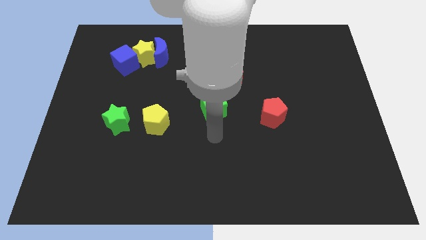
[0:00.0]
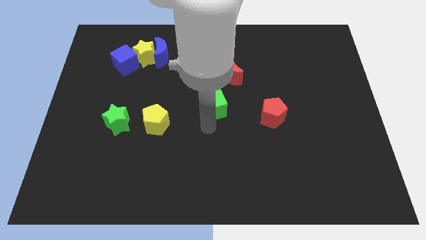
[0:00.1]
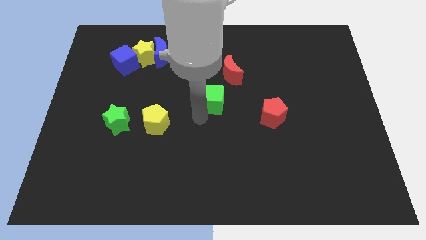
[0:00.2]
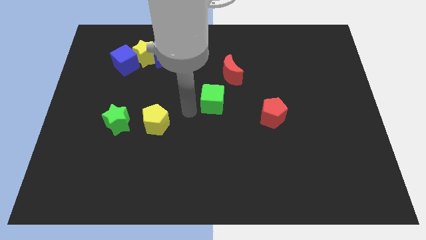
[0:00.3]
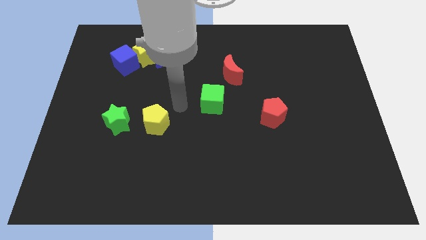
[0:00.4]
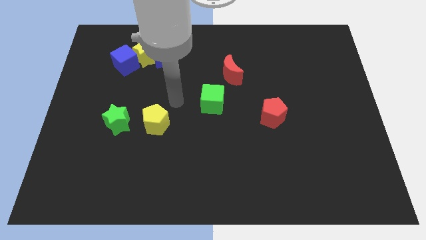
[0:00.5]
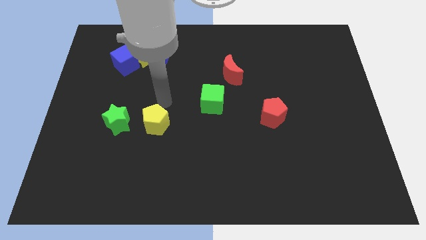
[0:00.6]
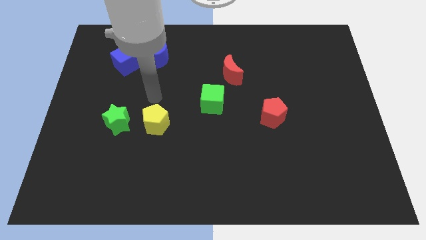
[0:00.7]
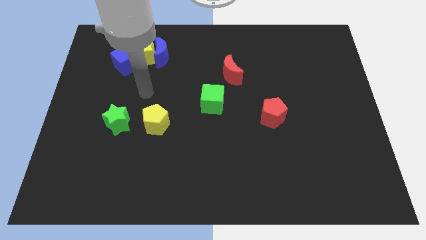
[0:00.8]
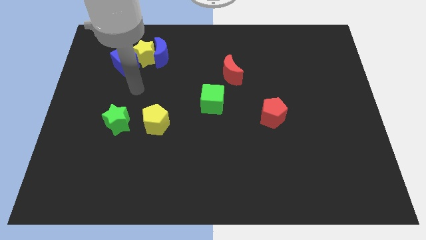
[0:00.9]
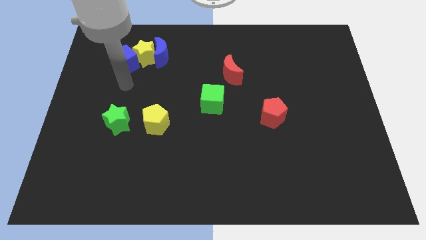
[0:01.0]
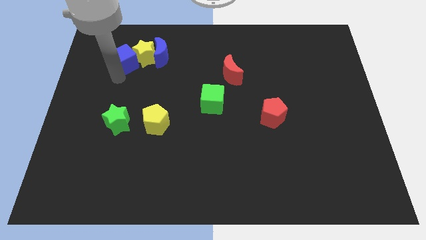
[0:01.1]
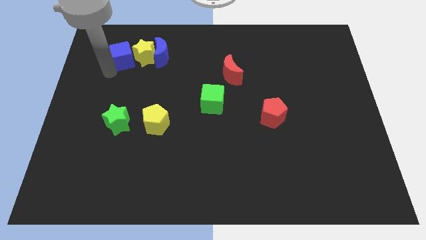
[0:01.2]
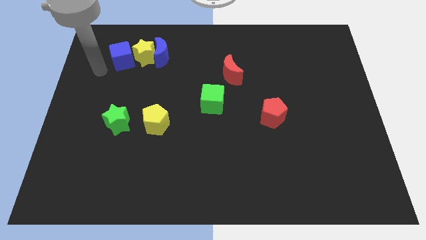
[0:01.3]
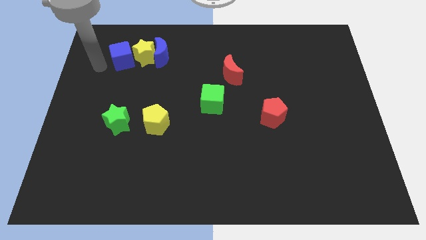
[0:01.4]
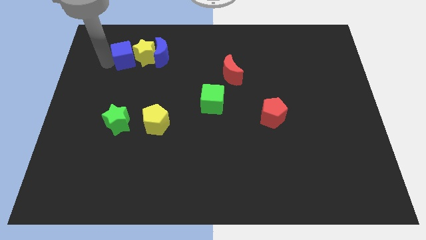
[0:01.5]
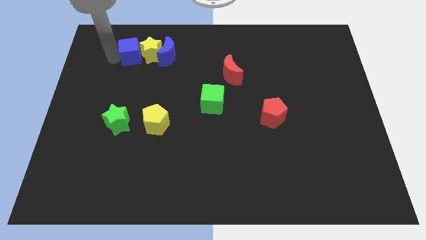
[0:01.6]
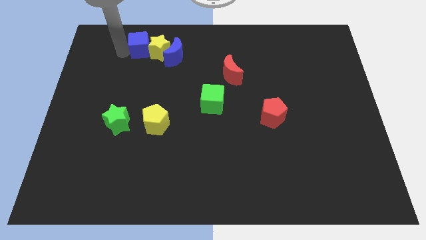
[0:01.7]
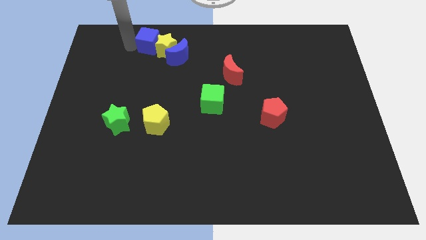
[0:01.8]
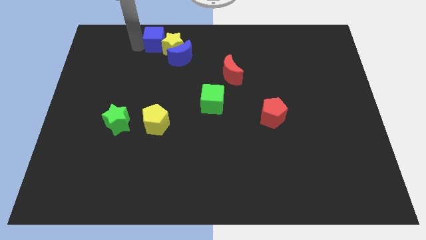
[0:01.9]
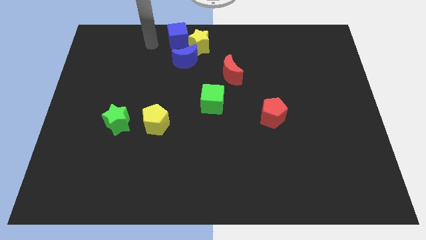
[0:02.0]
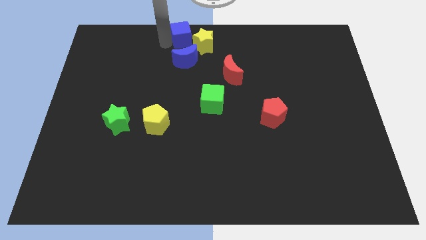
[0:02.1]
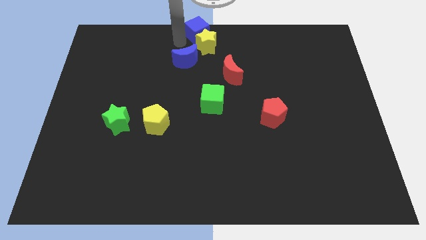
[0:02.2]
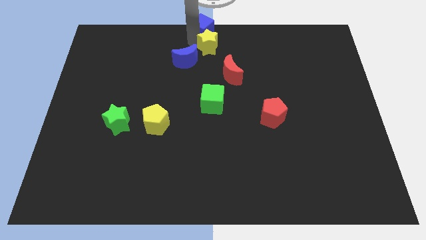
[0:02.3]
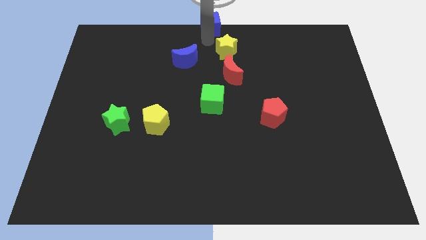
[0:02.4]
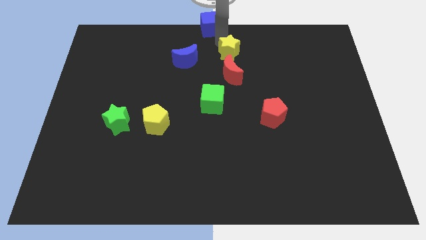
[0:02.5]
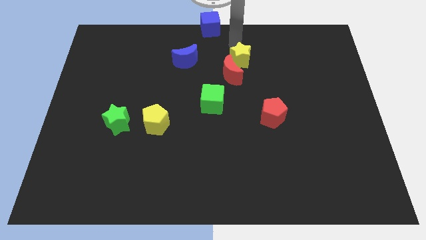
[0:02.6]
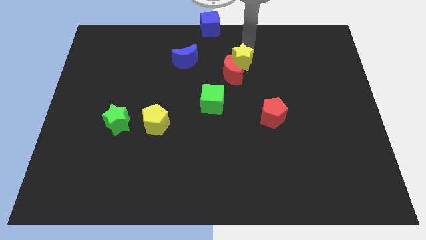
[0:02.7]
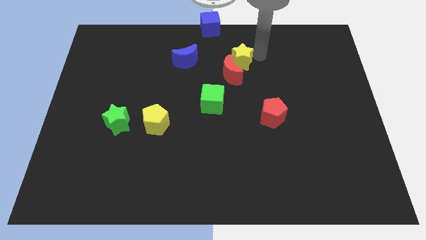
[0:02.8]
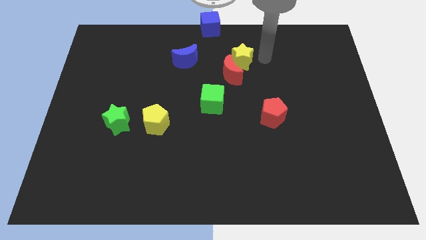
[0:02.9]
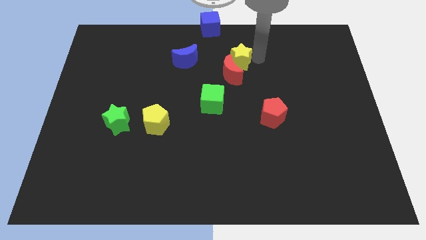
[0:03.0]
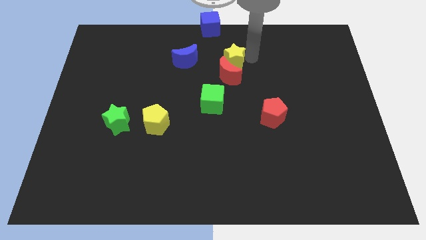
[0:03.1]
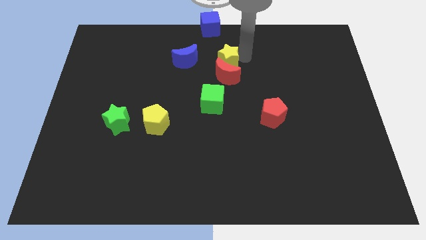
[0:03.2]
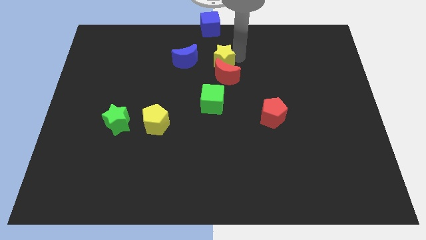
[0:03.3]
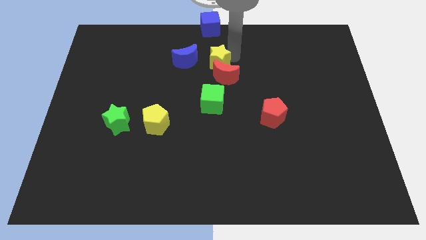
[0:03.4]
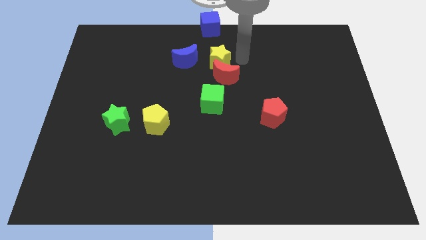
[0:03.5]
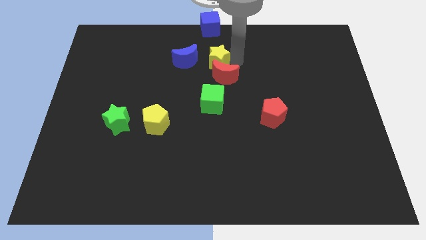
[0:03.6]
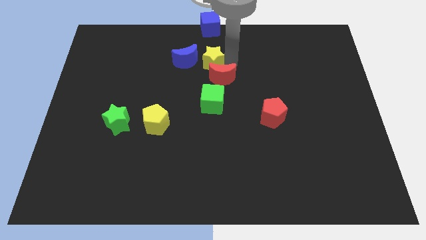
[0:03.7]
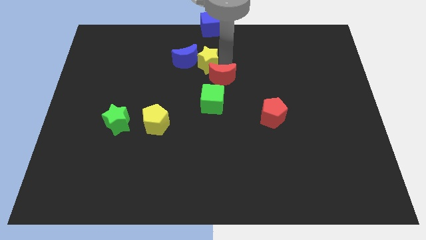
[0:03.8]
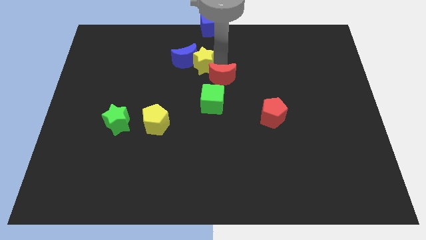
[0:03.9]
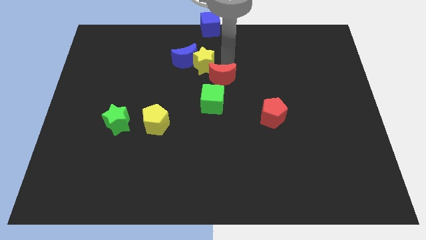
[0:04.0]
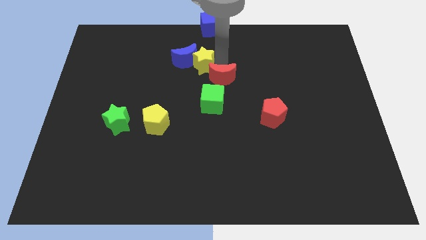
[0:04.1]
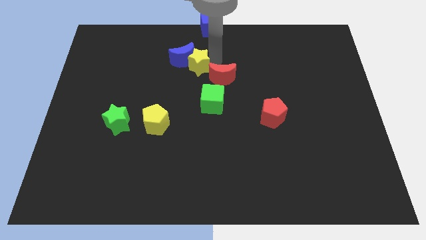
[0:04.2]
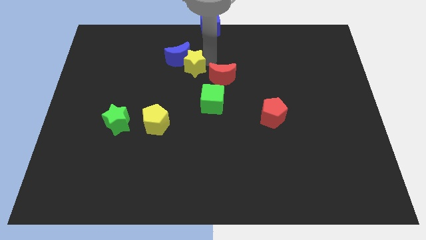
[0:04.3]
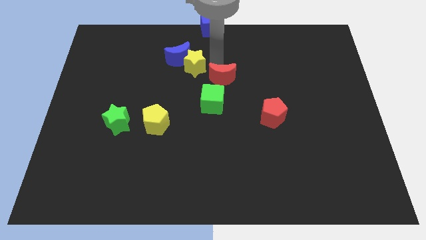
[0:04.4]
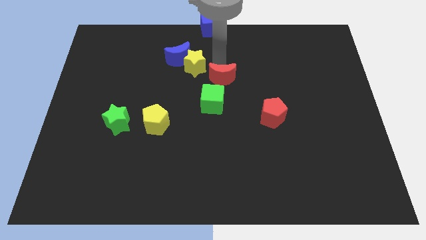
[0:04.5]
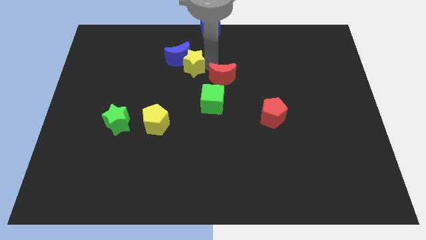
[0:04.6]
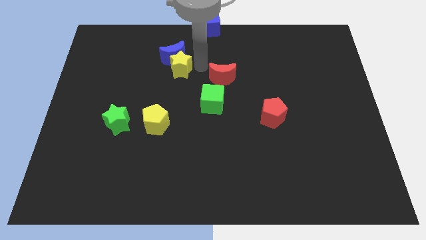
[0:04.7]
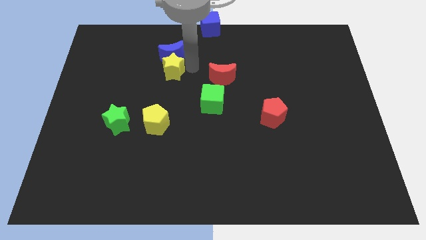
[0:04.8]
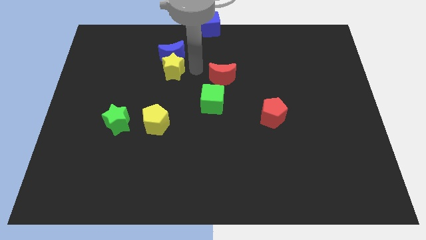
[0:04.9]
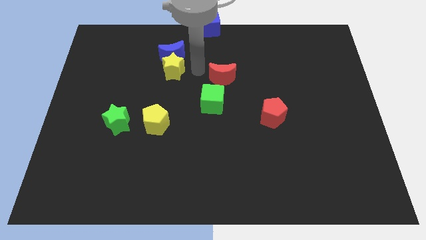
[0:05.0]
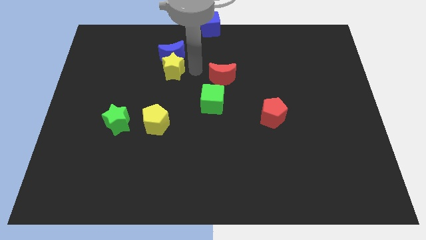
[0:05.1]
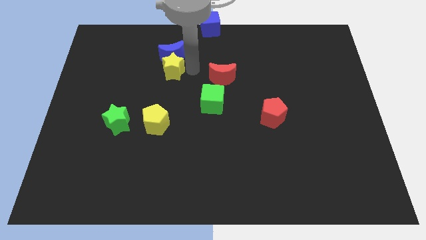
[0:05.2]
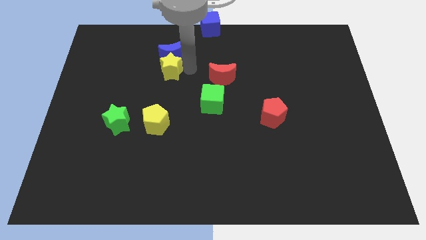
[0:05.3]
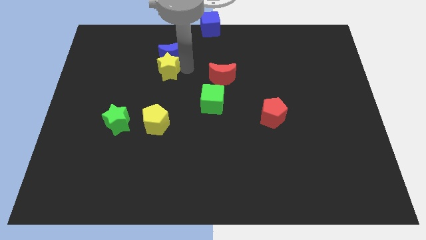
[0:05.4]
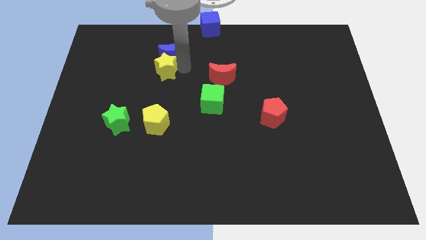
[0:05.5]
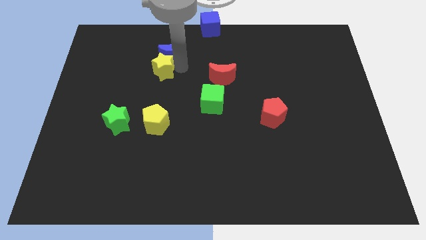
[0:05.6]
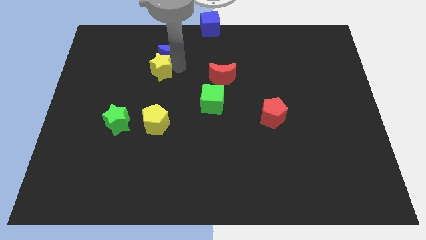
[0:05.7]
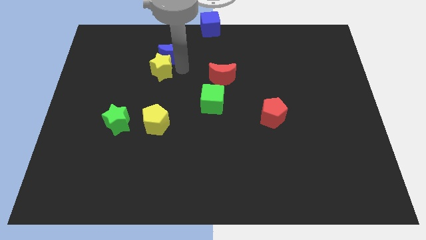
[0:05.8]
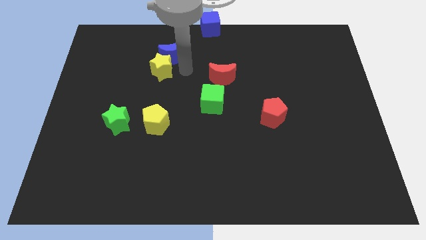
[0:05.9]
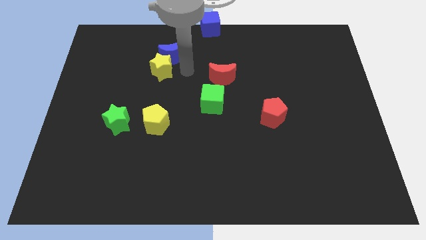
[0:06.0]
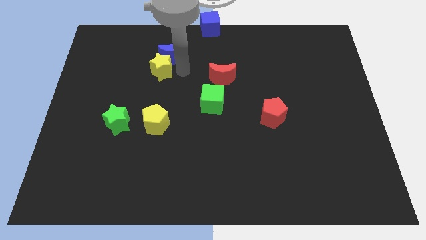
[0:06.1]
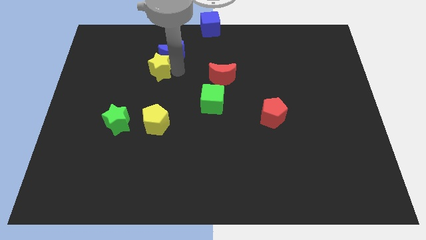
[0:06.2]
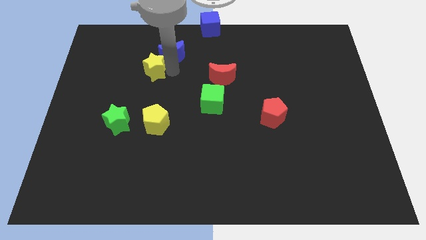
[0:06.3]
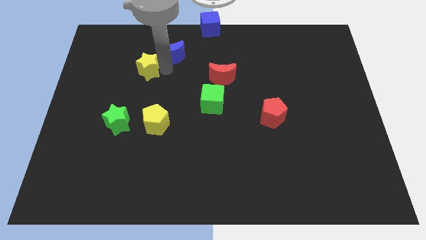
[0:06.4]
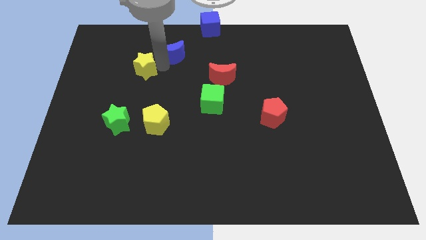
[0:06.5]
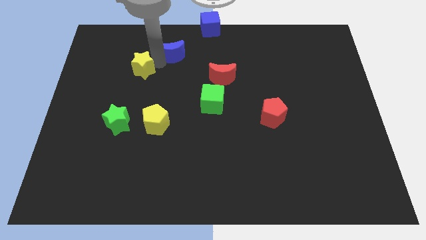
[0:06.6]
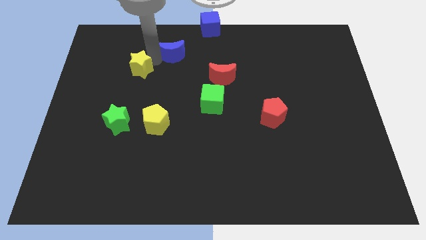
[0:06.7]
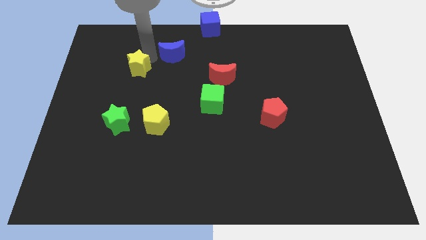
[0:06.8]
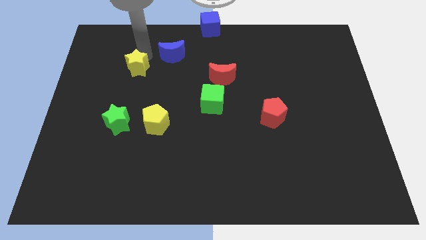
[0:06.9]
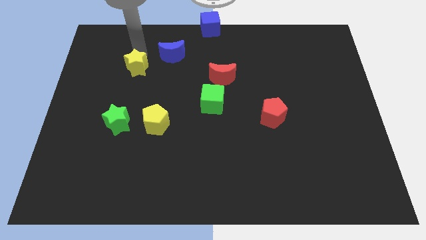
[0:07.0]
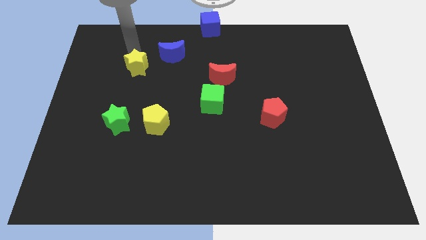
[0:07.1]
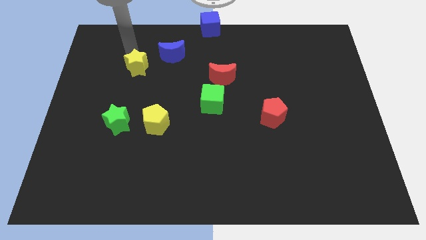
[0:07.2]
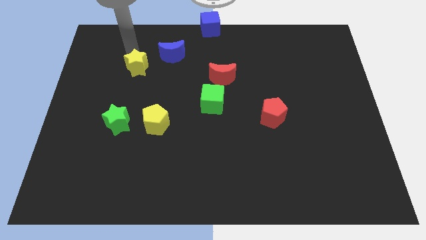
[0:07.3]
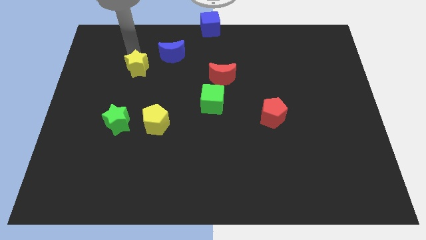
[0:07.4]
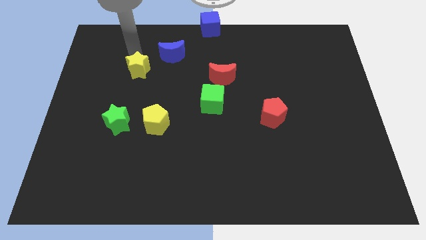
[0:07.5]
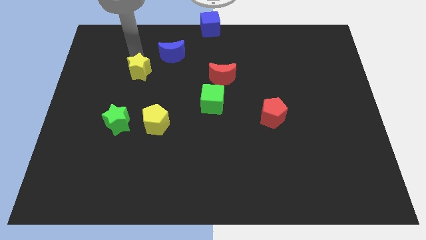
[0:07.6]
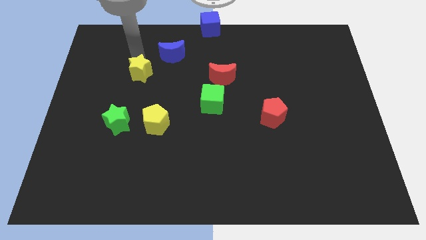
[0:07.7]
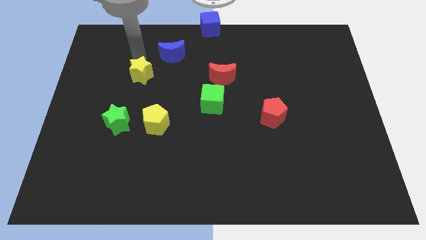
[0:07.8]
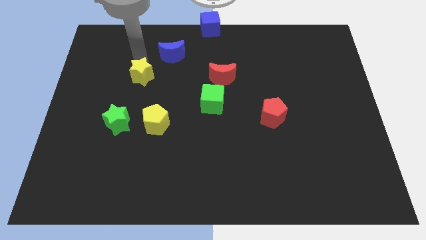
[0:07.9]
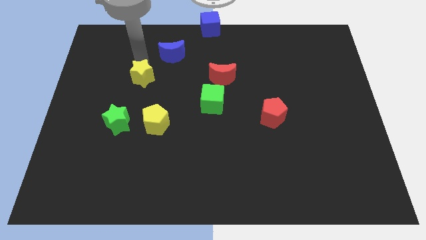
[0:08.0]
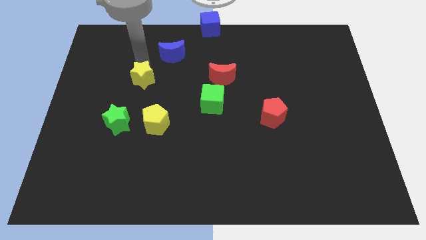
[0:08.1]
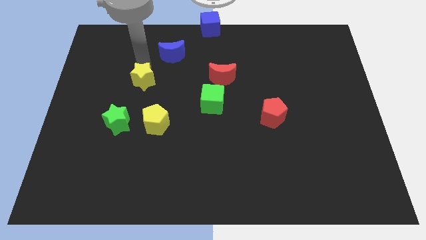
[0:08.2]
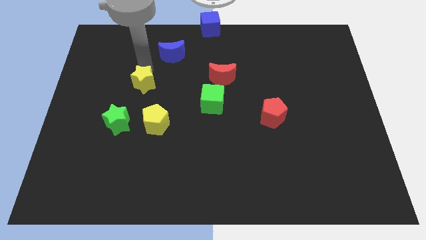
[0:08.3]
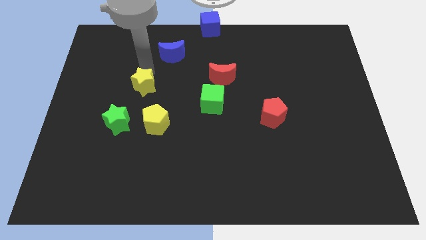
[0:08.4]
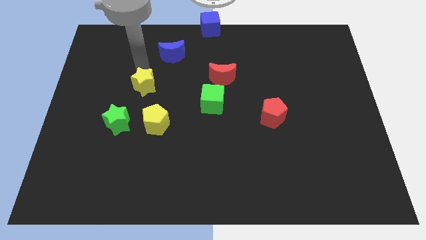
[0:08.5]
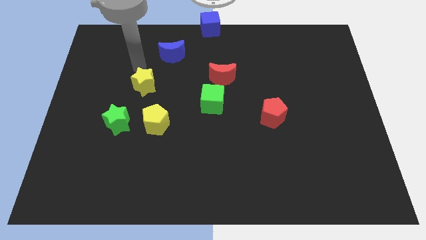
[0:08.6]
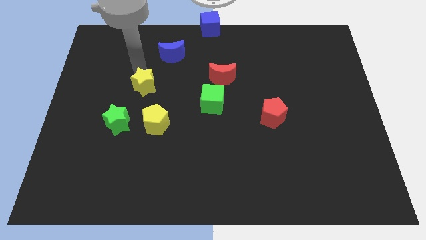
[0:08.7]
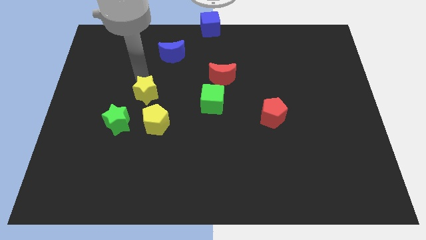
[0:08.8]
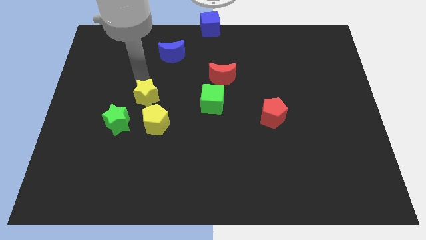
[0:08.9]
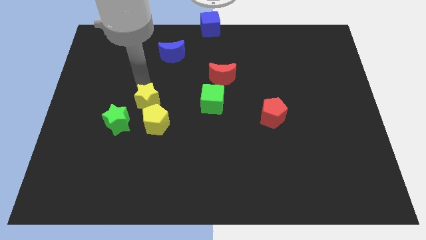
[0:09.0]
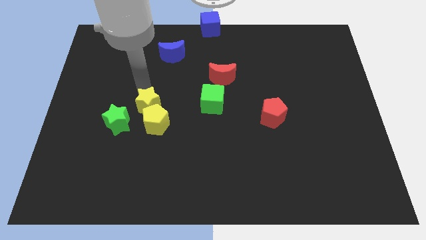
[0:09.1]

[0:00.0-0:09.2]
put the yellow star to the yellow pentagon
